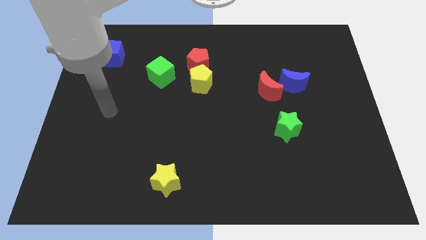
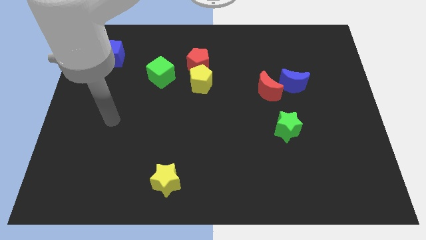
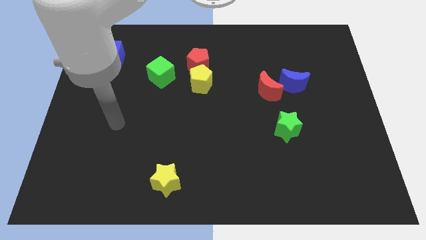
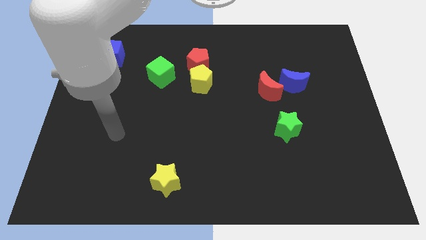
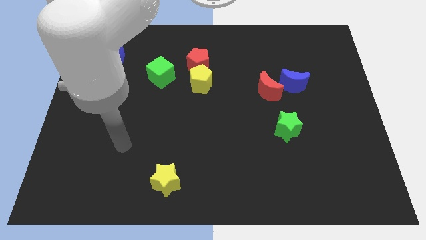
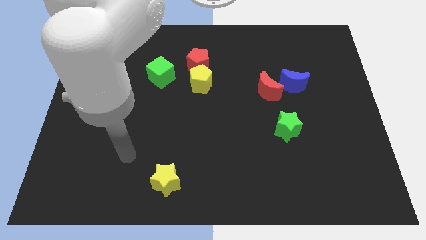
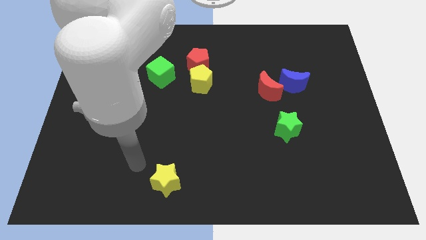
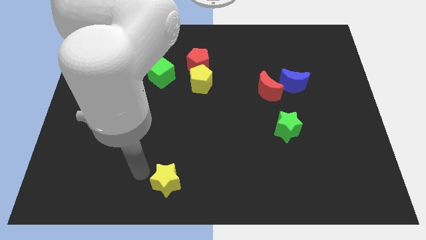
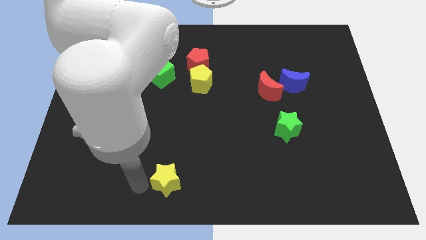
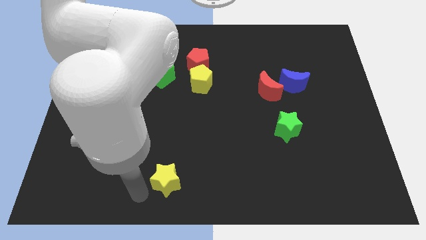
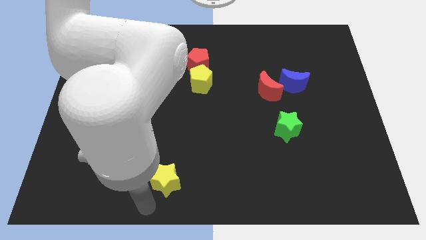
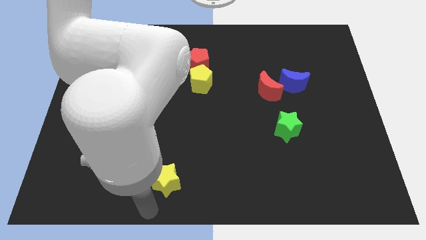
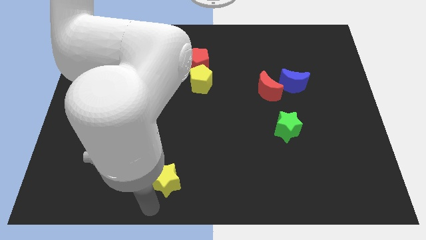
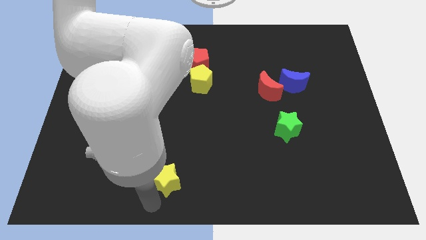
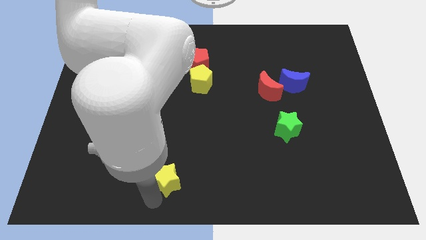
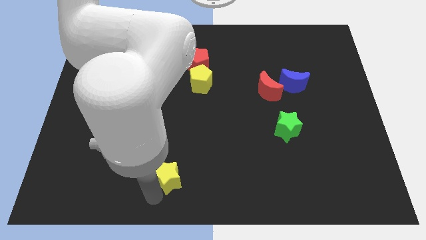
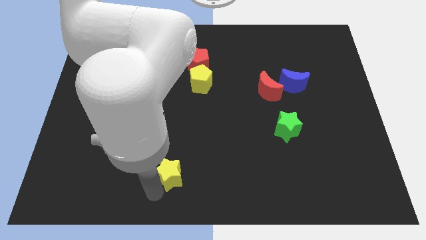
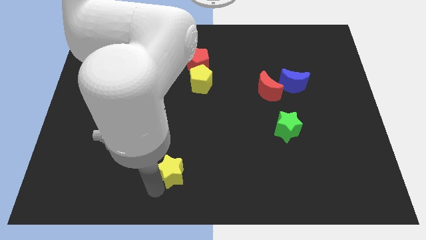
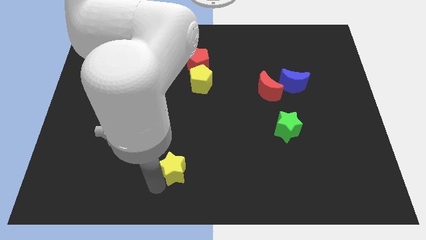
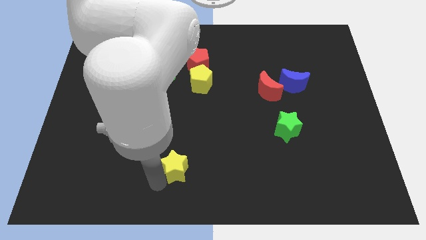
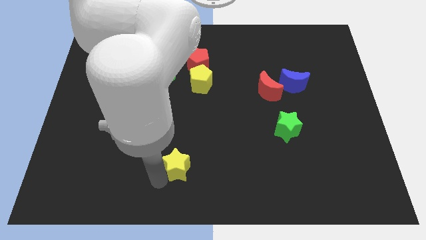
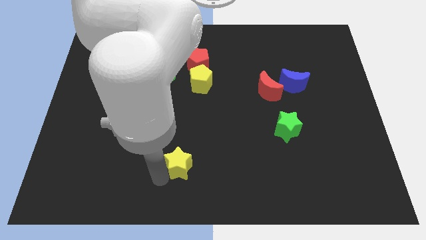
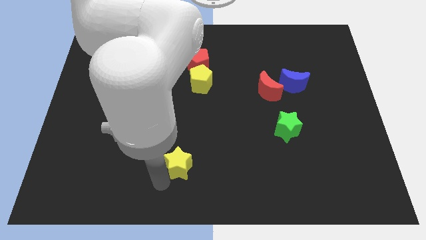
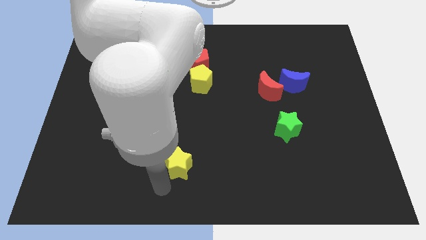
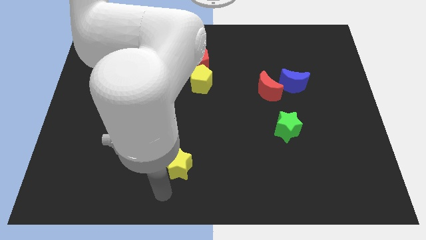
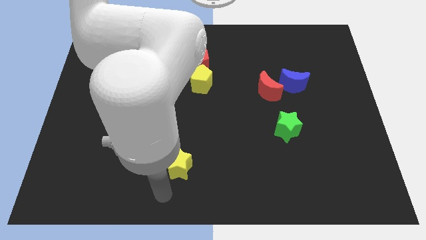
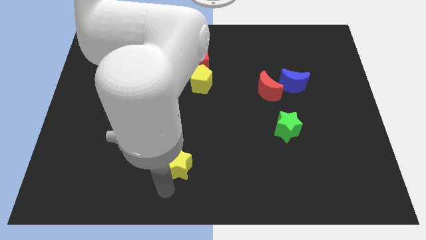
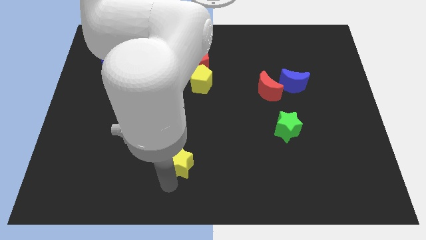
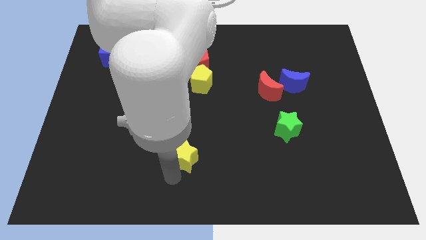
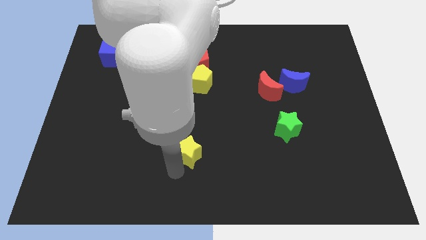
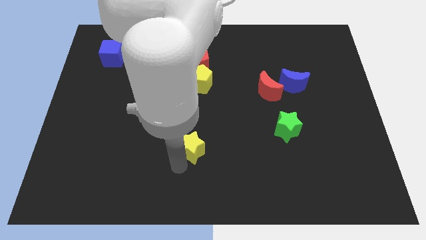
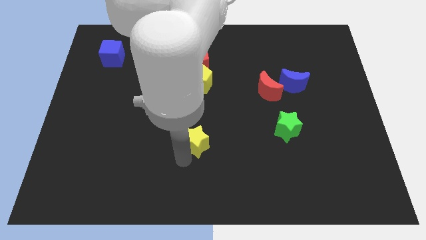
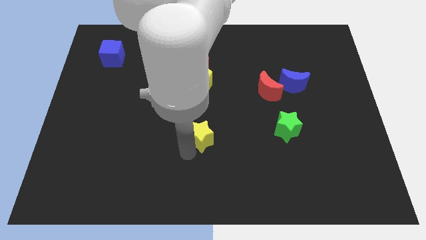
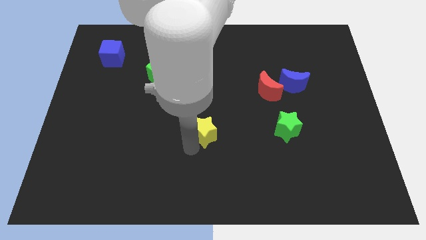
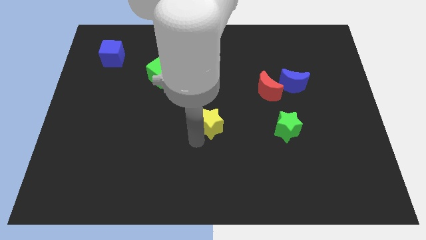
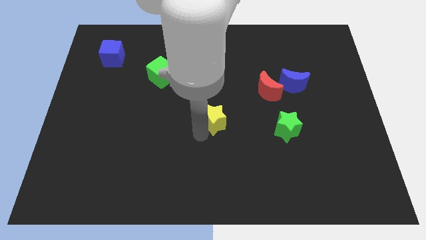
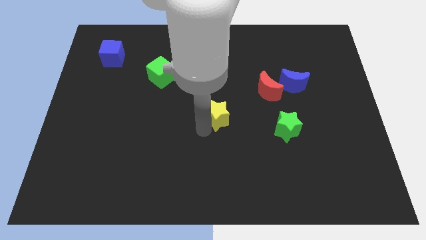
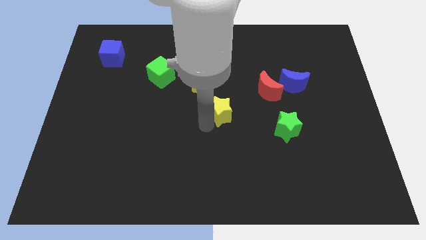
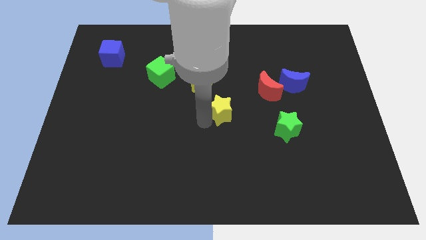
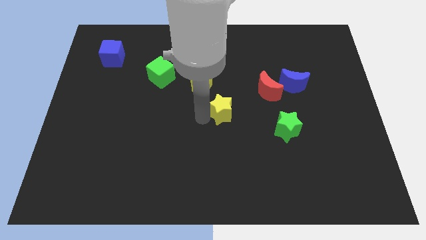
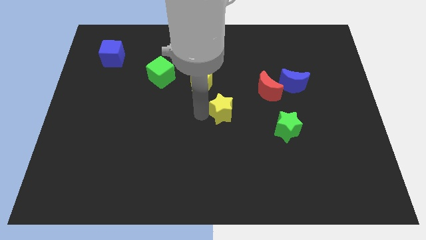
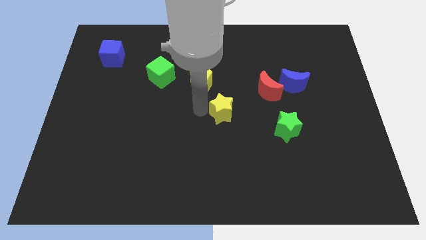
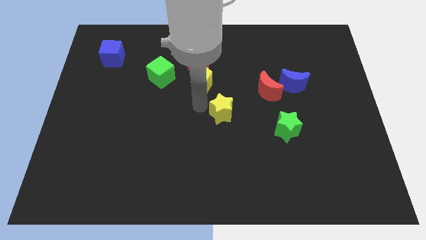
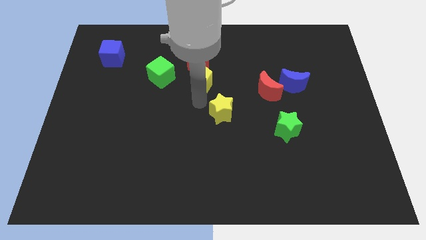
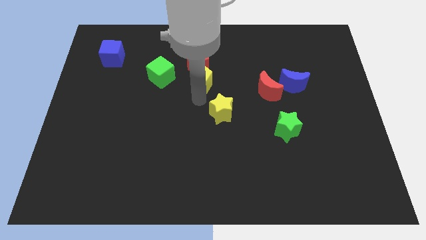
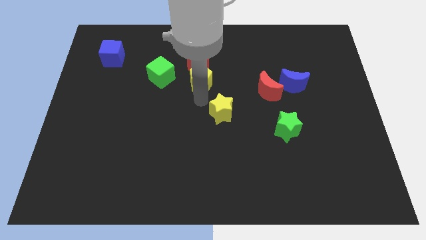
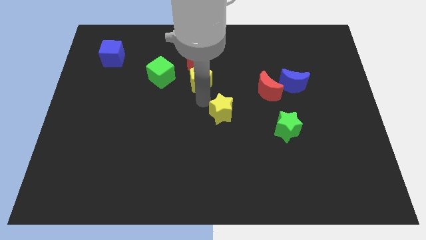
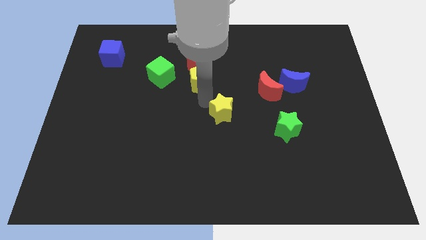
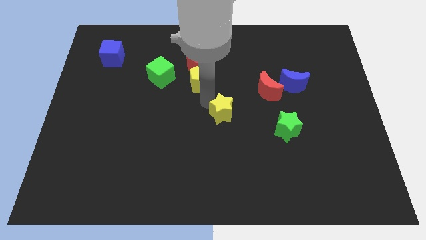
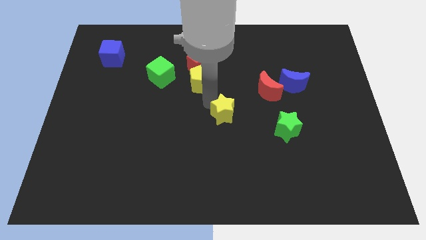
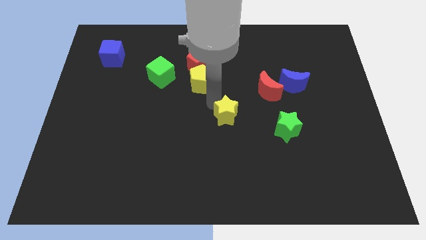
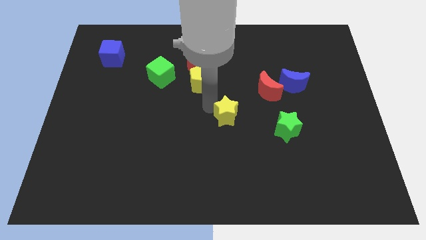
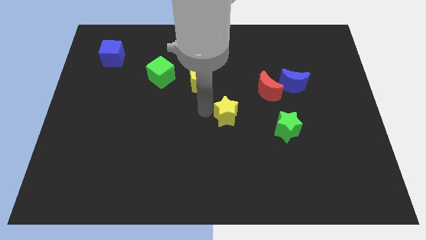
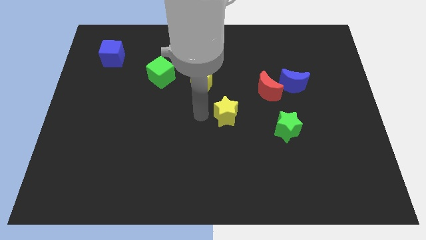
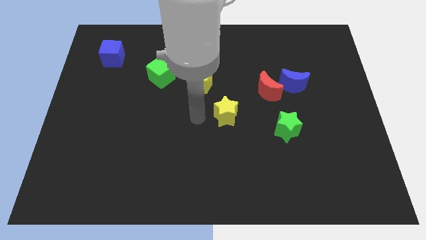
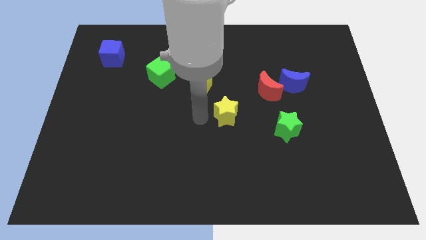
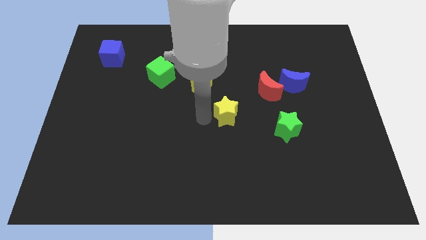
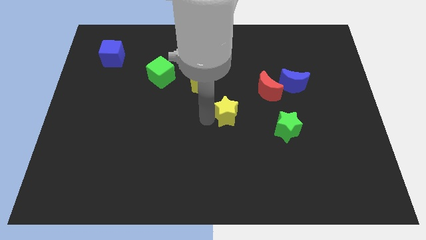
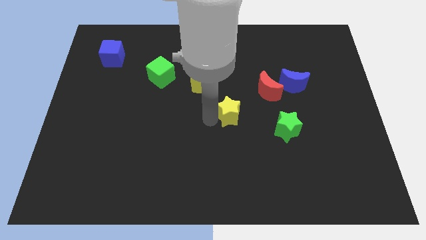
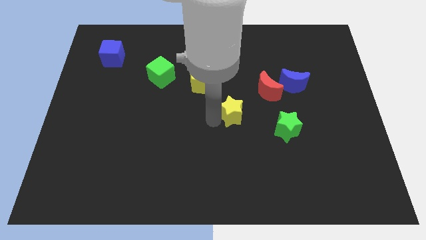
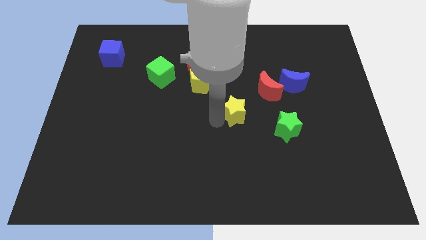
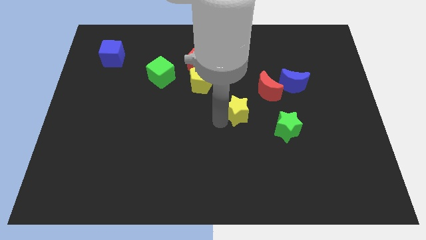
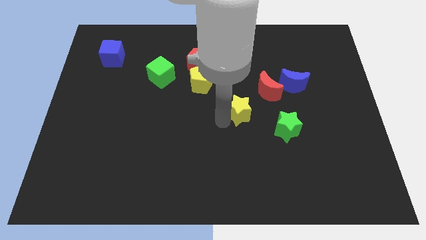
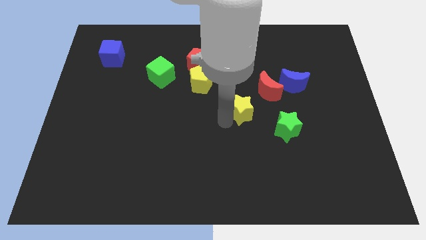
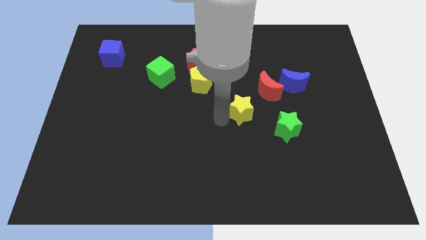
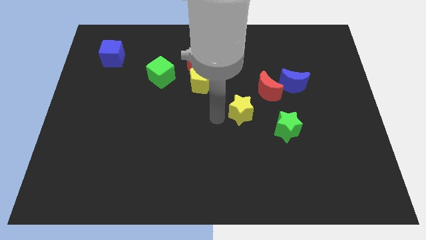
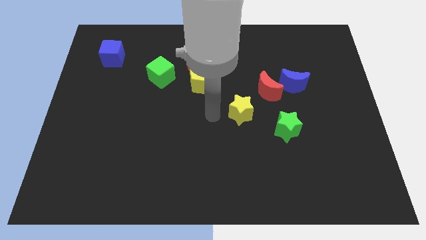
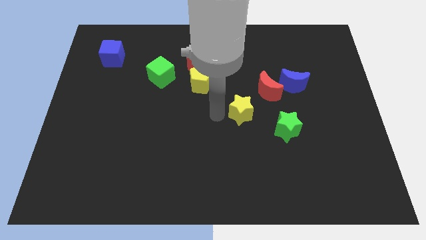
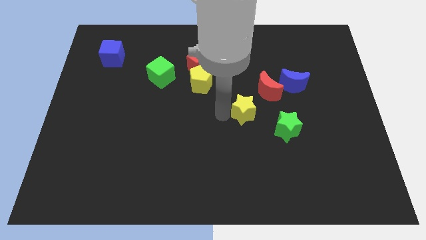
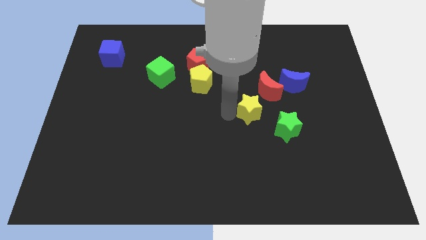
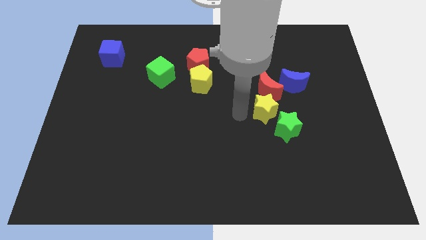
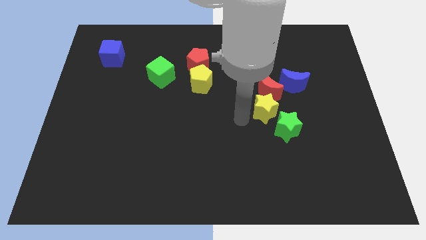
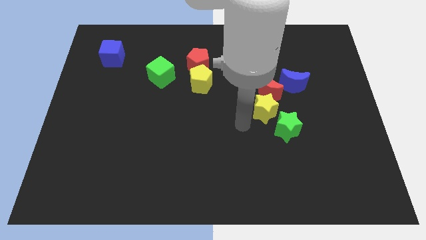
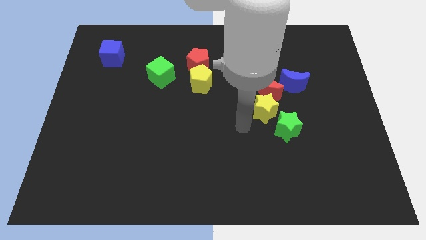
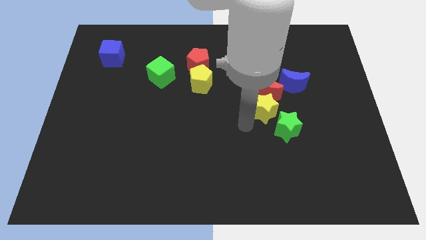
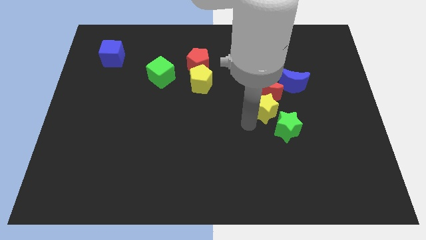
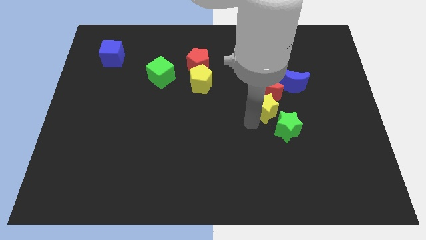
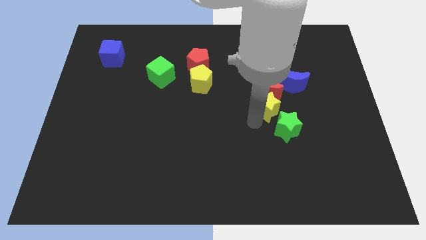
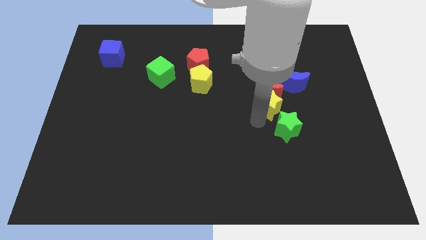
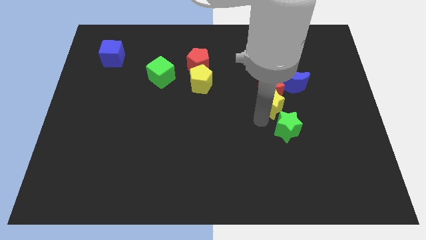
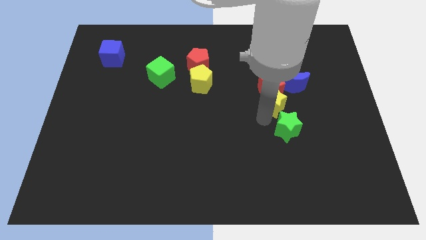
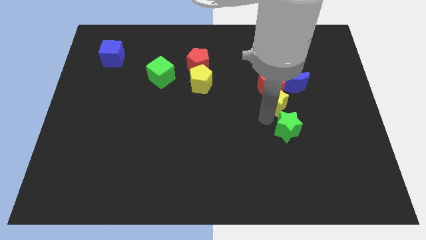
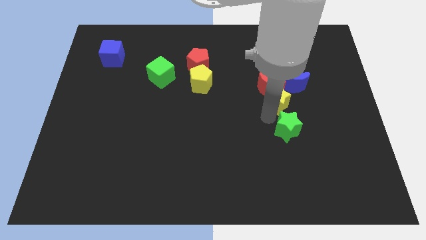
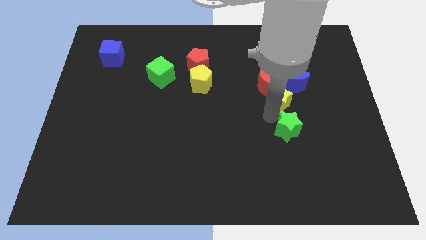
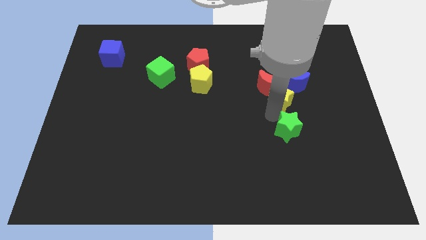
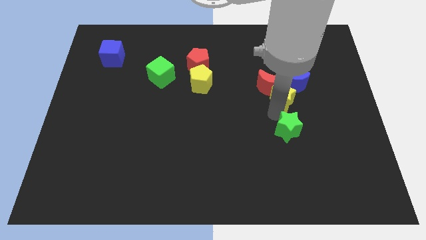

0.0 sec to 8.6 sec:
put the yellow star to the blue moon
